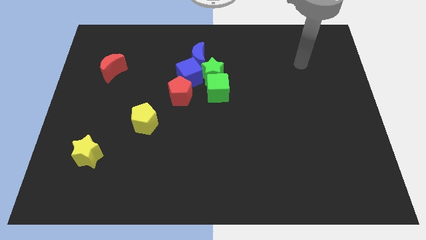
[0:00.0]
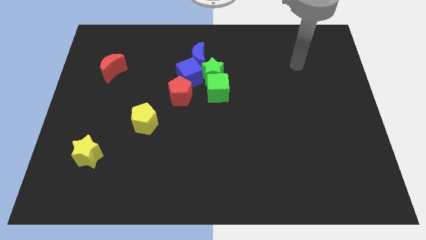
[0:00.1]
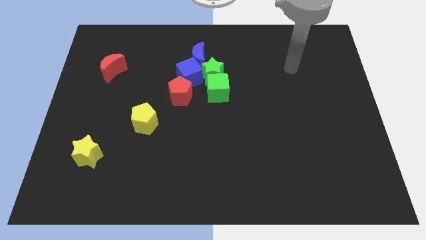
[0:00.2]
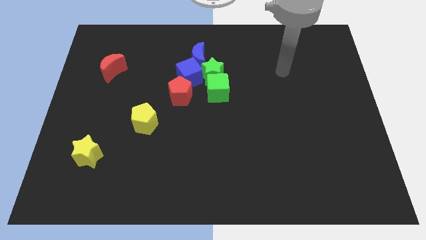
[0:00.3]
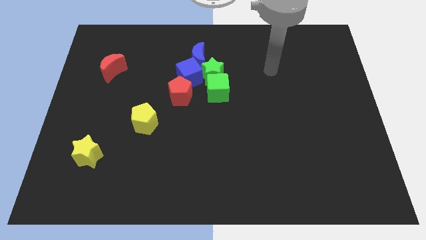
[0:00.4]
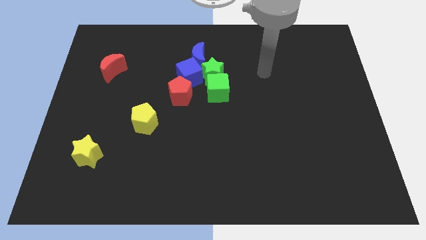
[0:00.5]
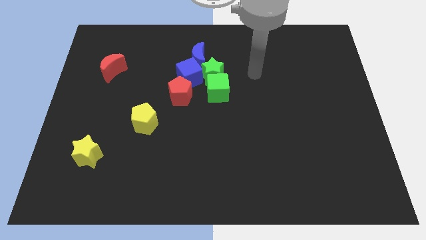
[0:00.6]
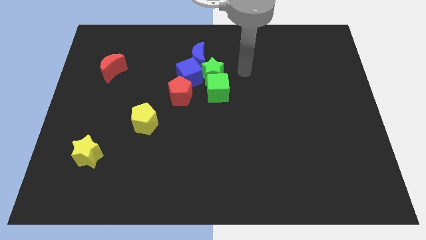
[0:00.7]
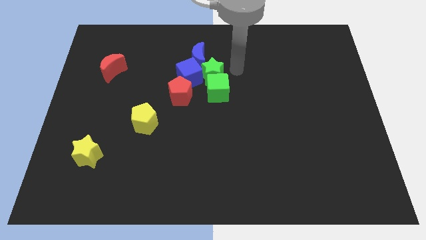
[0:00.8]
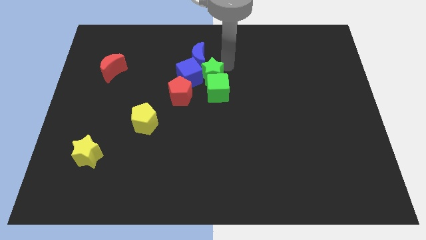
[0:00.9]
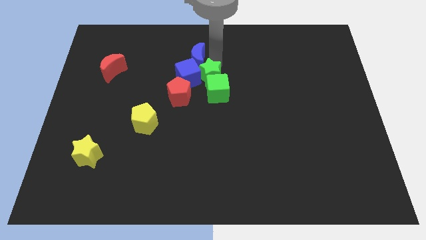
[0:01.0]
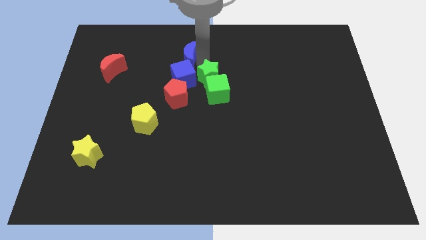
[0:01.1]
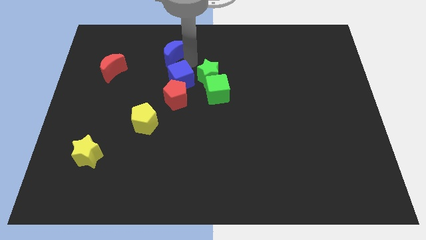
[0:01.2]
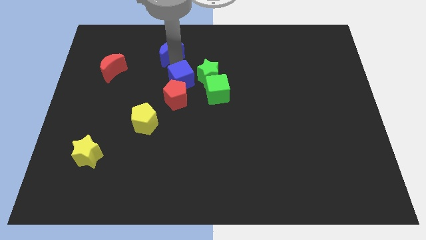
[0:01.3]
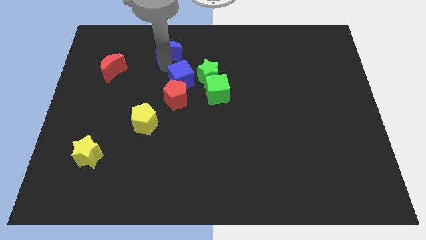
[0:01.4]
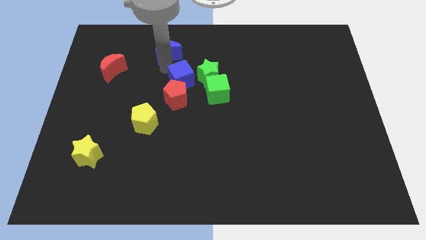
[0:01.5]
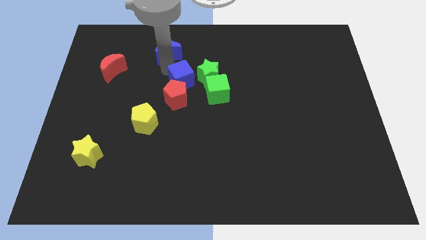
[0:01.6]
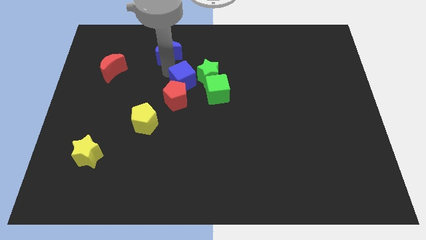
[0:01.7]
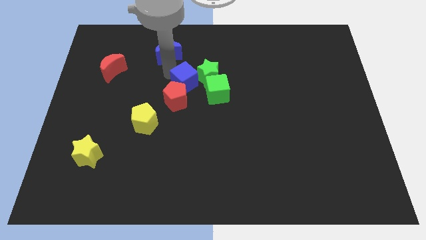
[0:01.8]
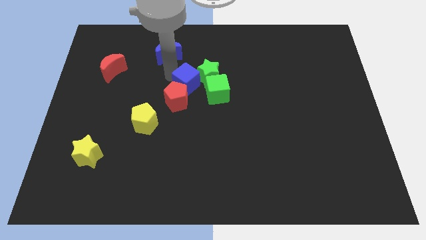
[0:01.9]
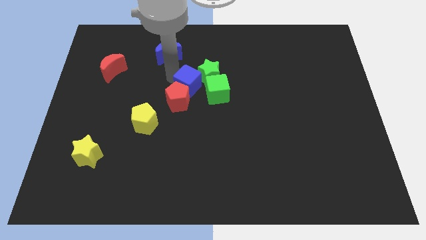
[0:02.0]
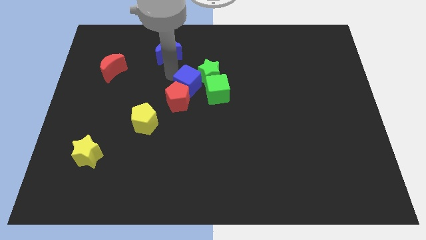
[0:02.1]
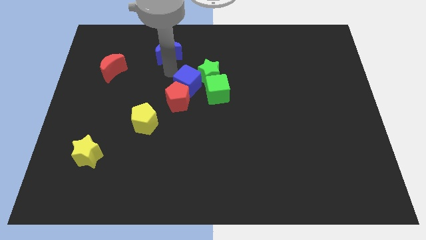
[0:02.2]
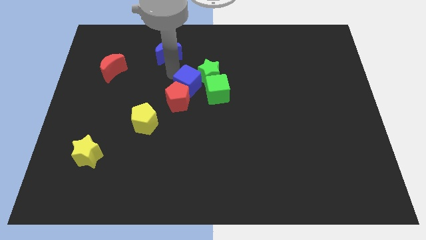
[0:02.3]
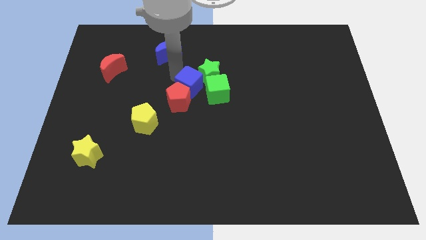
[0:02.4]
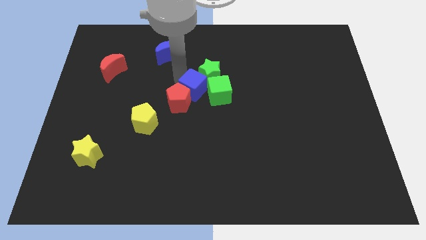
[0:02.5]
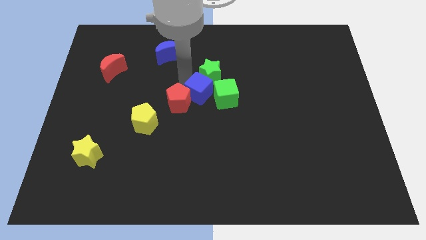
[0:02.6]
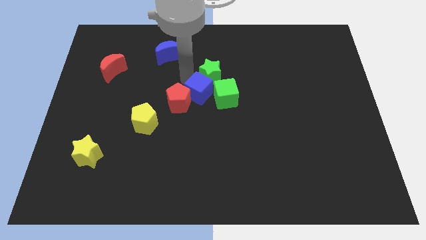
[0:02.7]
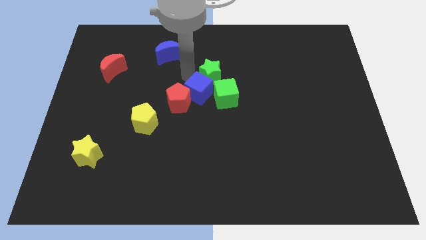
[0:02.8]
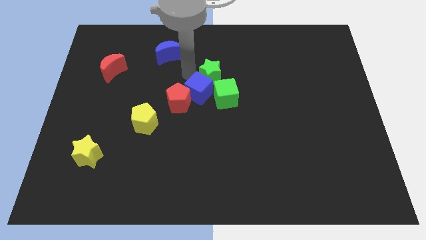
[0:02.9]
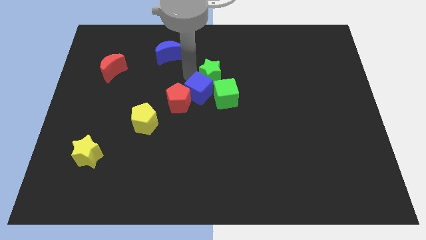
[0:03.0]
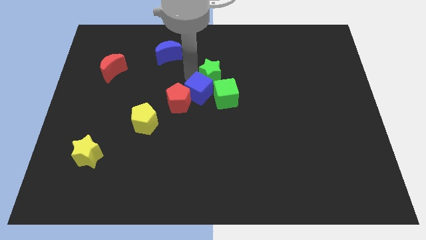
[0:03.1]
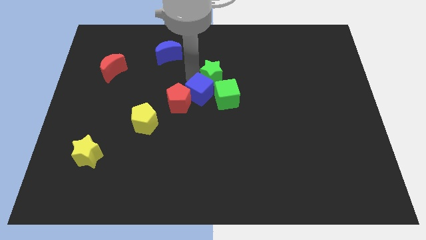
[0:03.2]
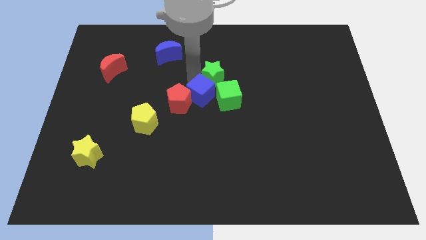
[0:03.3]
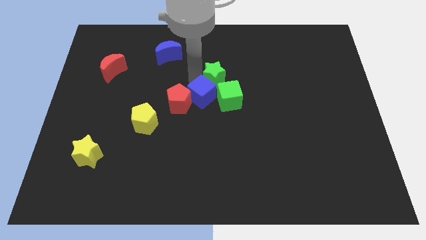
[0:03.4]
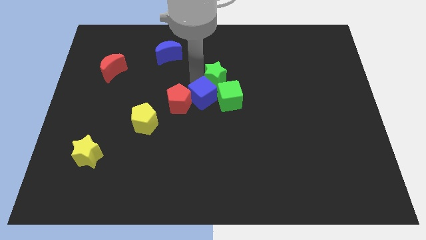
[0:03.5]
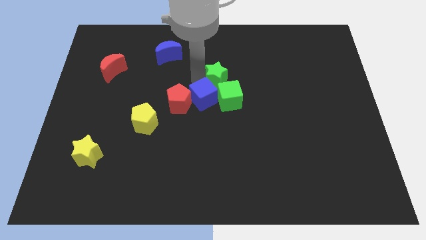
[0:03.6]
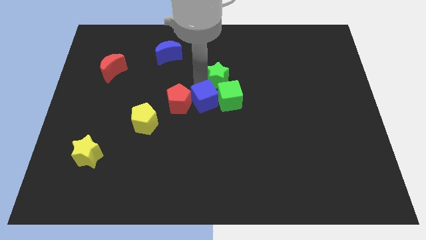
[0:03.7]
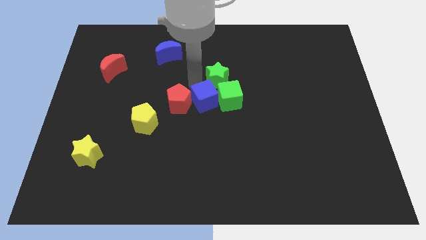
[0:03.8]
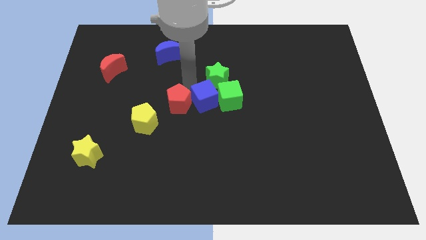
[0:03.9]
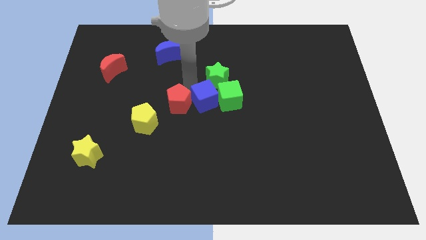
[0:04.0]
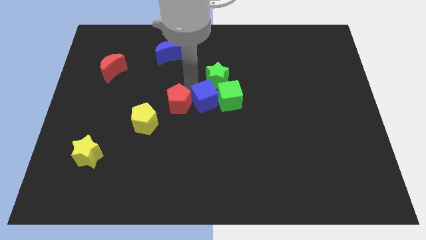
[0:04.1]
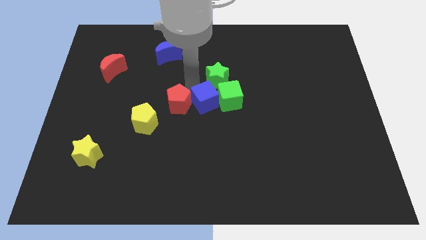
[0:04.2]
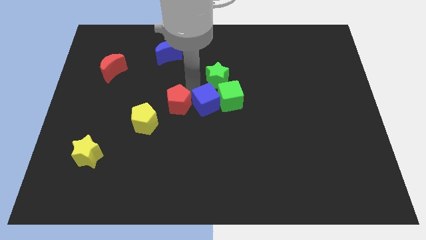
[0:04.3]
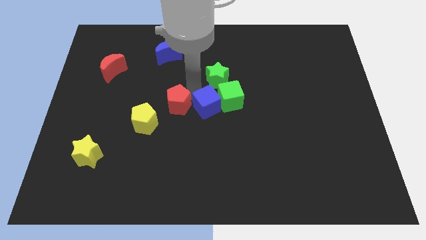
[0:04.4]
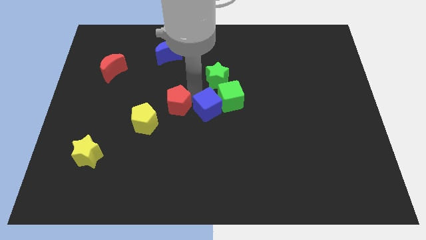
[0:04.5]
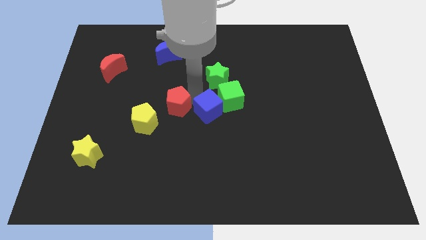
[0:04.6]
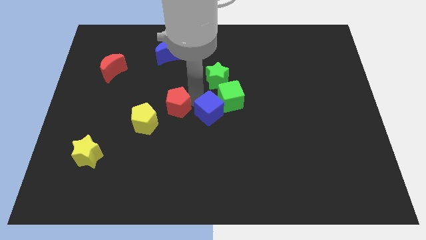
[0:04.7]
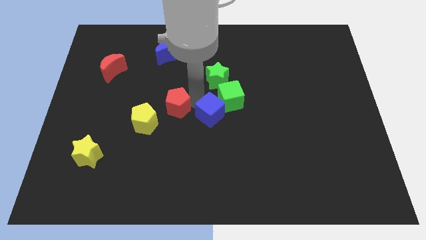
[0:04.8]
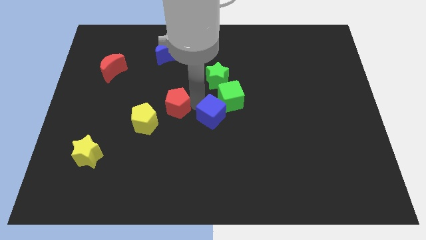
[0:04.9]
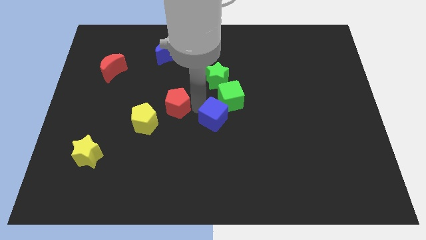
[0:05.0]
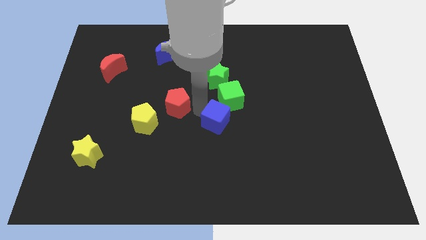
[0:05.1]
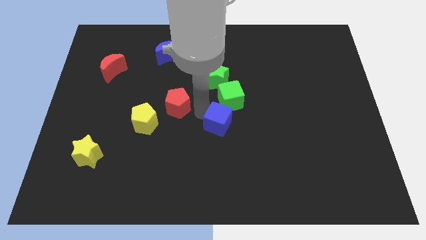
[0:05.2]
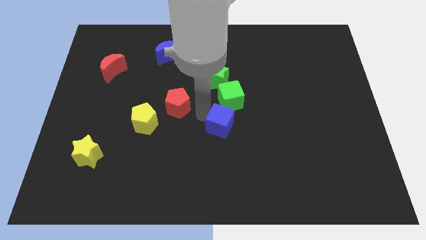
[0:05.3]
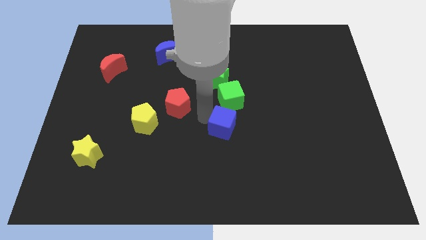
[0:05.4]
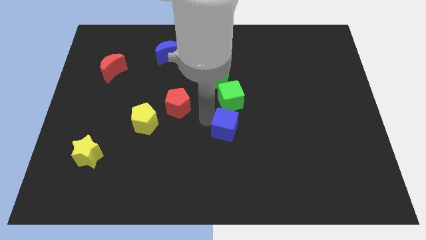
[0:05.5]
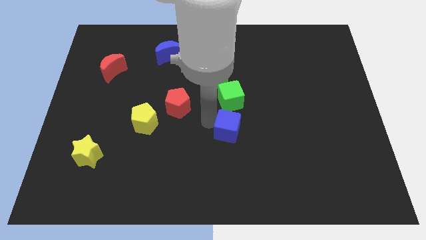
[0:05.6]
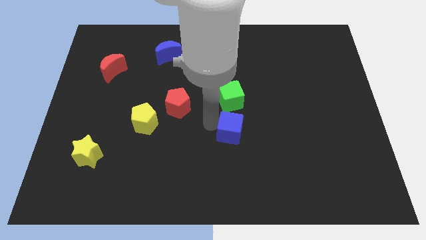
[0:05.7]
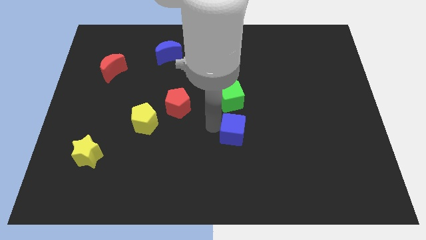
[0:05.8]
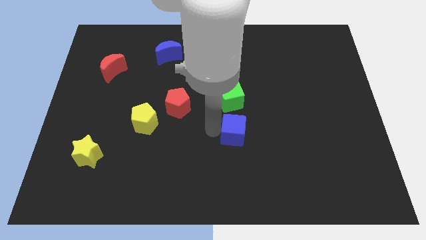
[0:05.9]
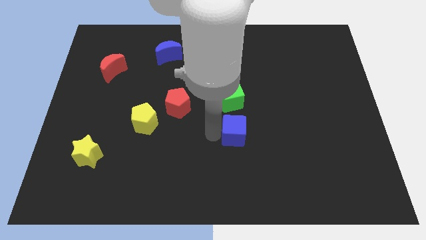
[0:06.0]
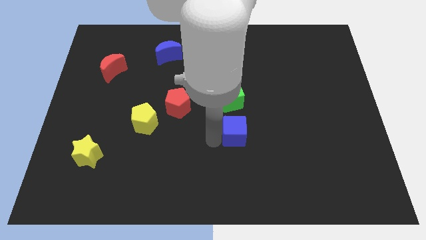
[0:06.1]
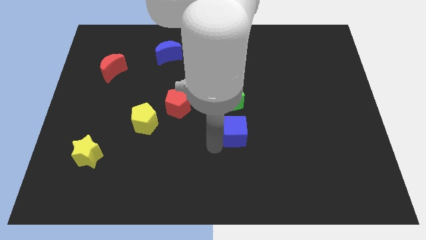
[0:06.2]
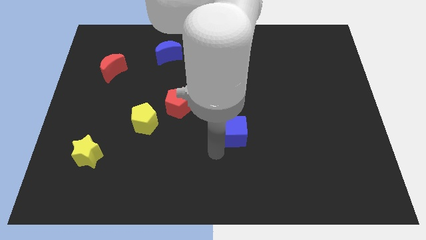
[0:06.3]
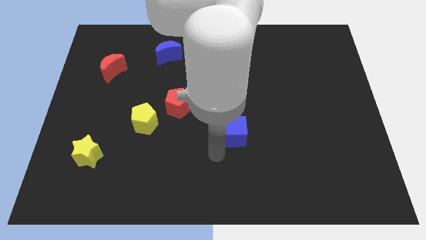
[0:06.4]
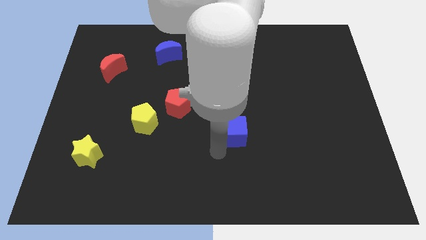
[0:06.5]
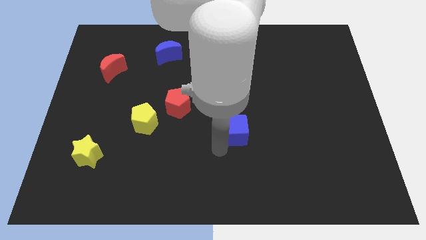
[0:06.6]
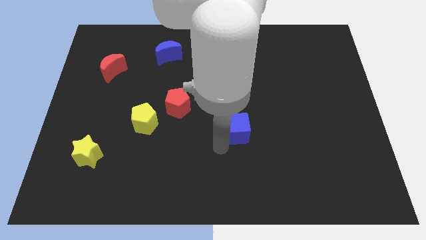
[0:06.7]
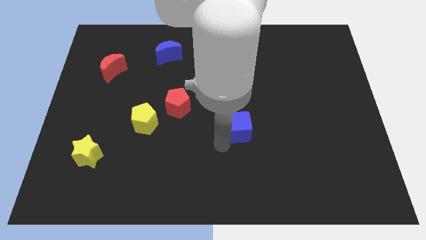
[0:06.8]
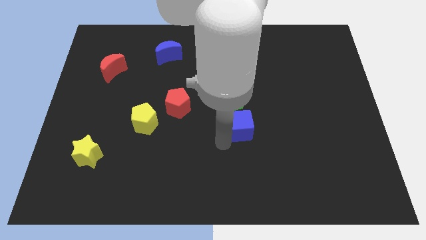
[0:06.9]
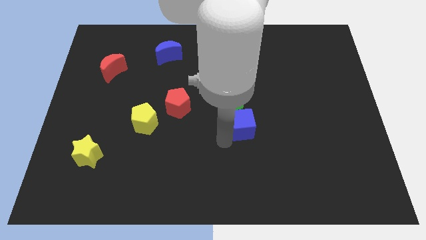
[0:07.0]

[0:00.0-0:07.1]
move the blue cube diagonally downwards and right

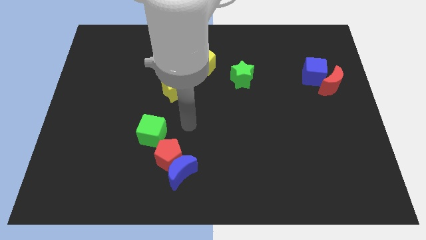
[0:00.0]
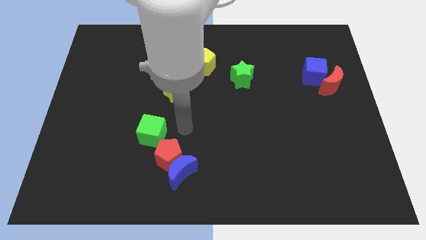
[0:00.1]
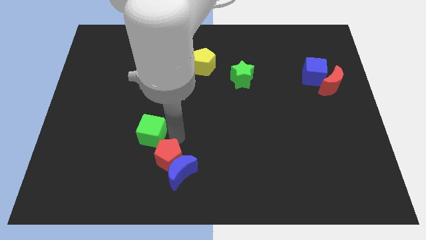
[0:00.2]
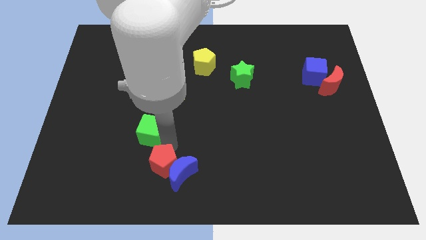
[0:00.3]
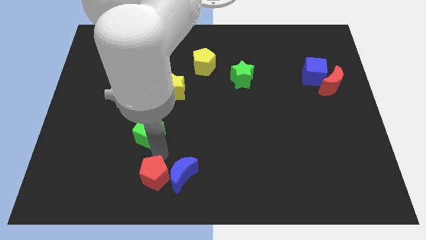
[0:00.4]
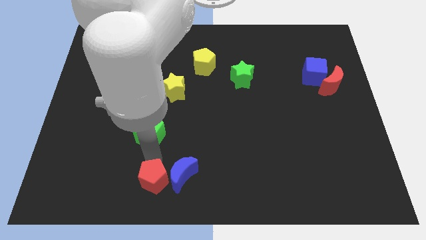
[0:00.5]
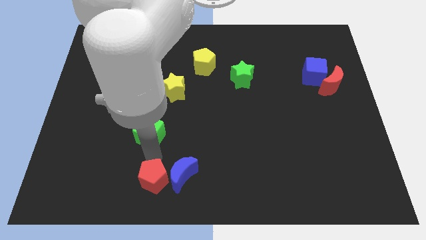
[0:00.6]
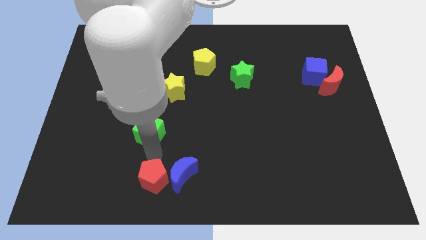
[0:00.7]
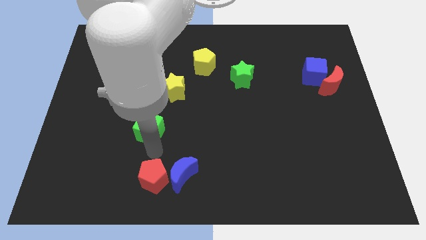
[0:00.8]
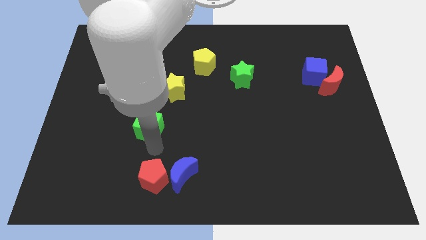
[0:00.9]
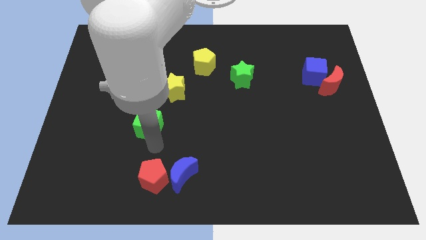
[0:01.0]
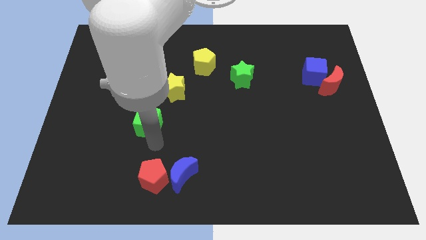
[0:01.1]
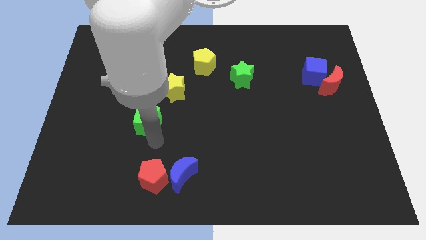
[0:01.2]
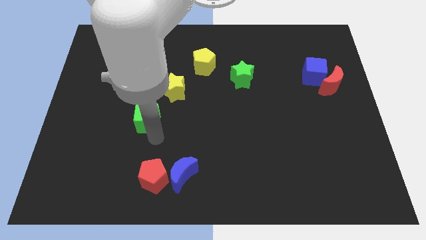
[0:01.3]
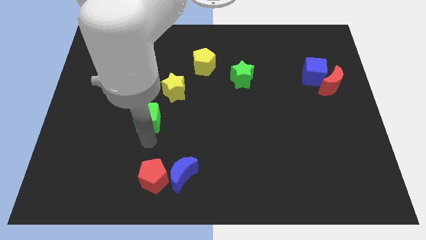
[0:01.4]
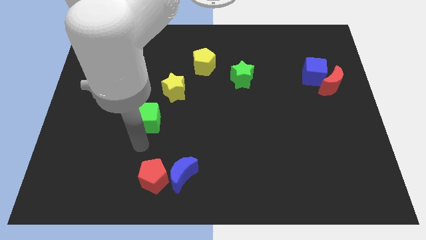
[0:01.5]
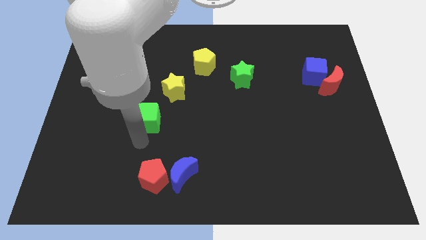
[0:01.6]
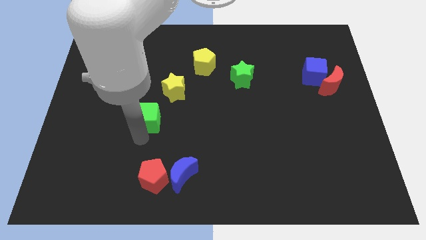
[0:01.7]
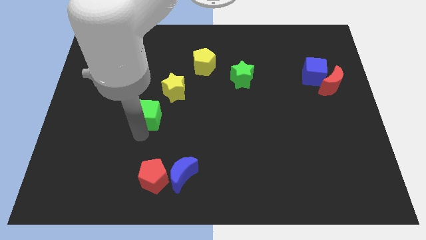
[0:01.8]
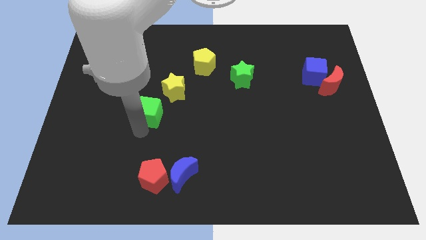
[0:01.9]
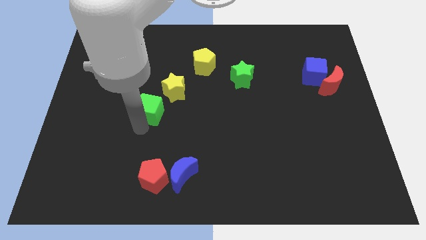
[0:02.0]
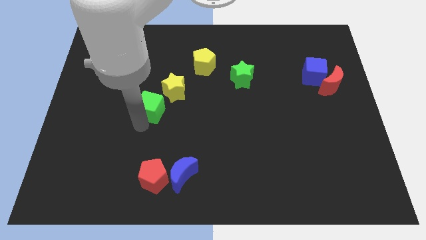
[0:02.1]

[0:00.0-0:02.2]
slightly slide the green cube upwards
